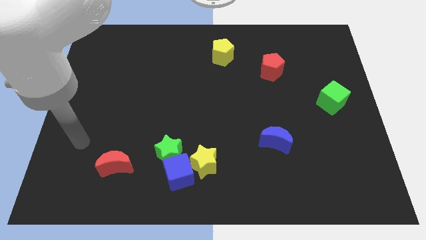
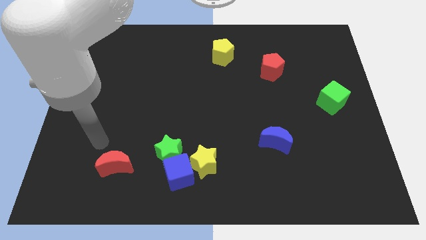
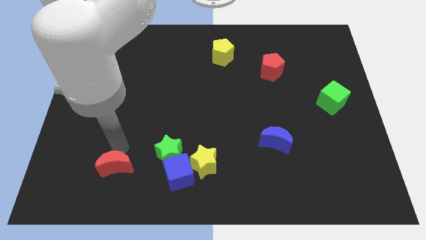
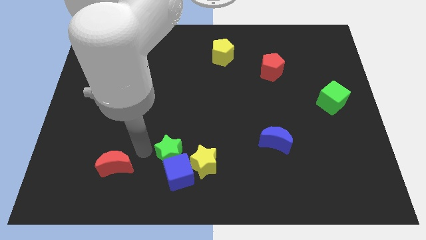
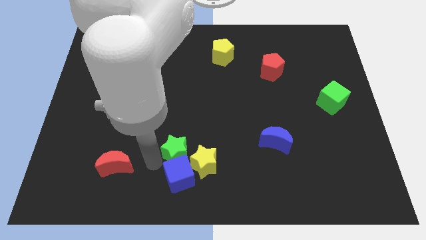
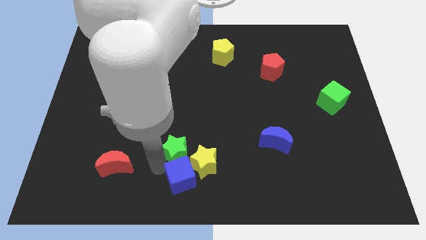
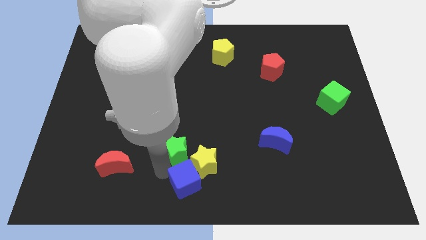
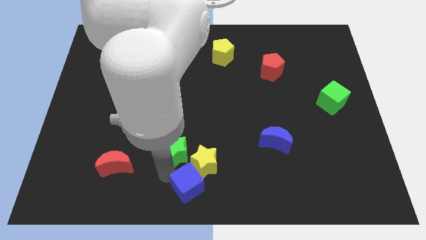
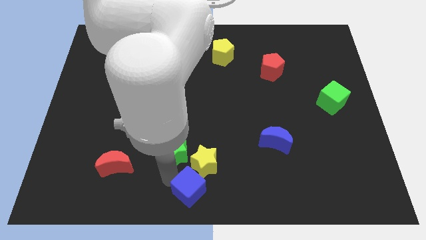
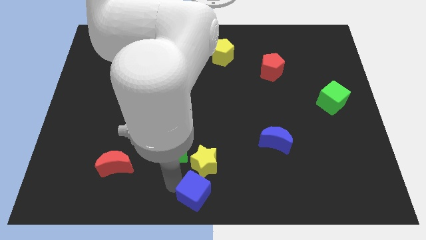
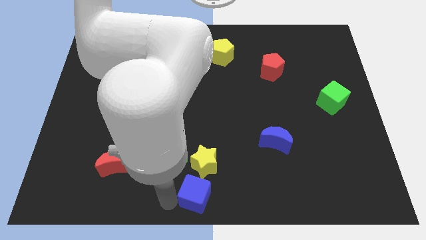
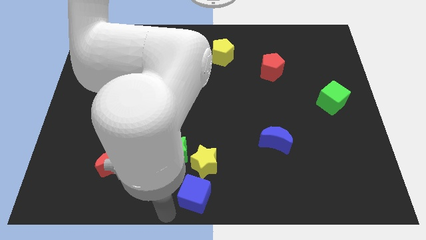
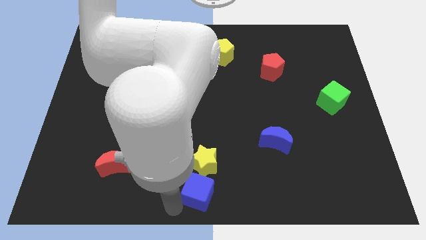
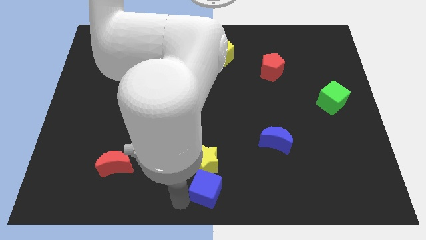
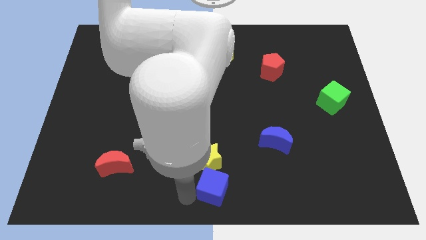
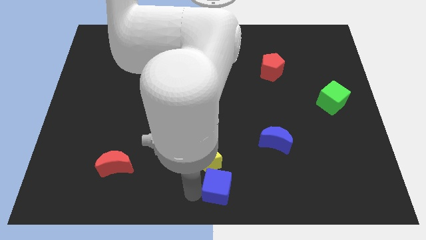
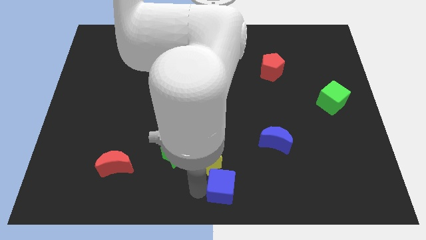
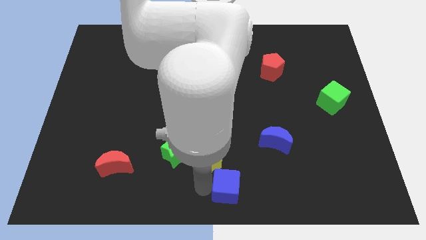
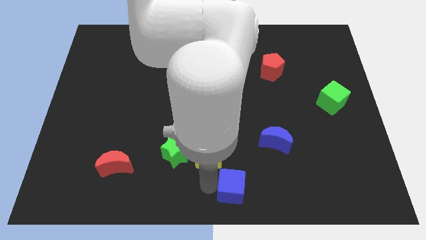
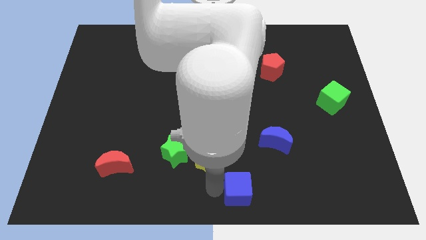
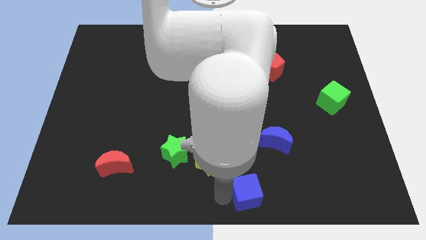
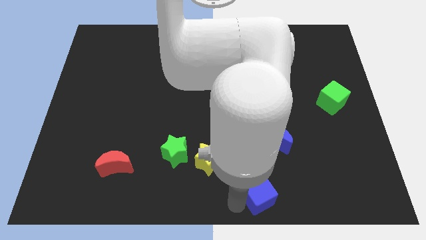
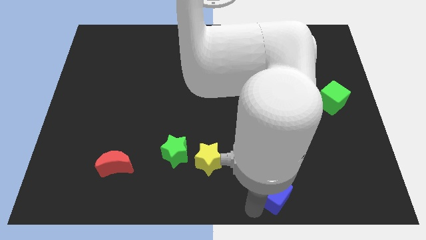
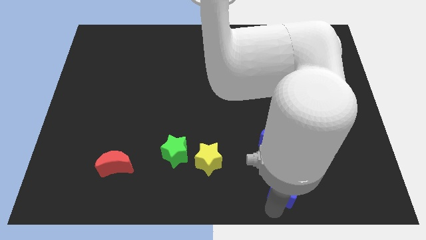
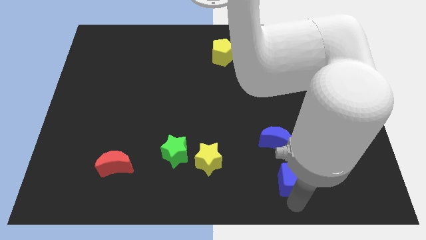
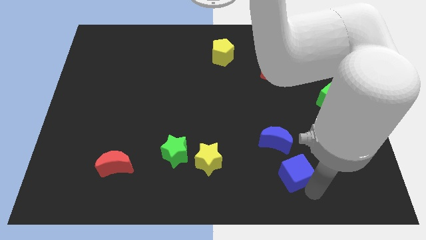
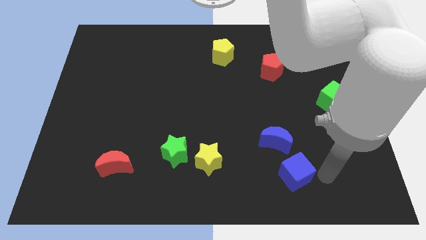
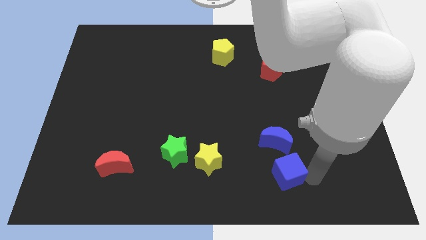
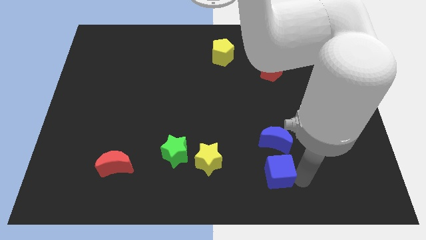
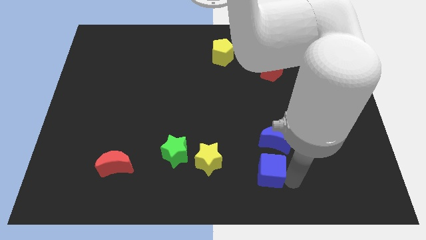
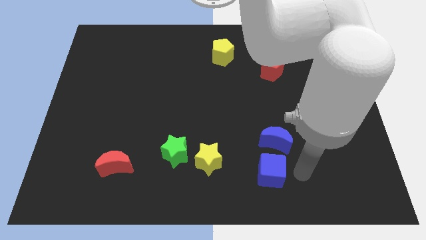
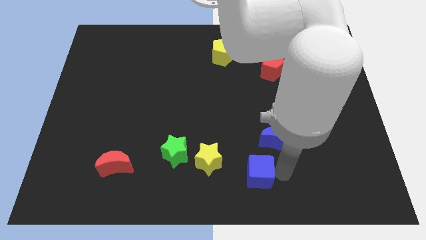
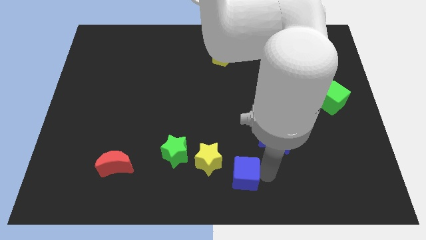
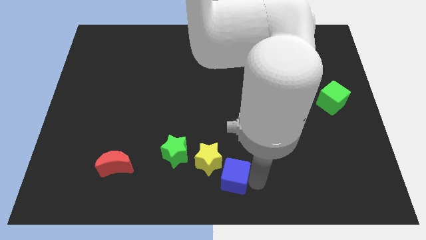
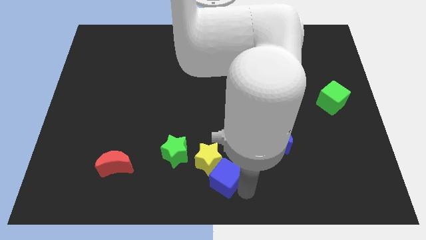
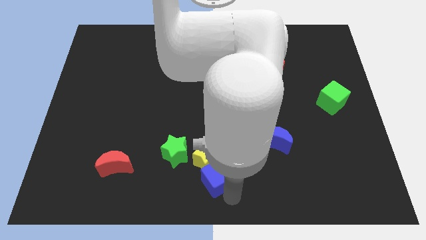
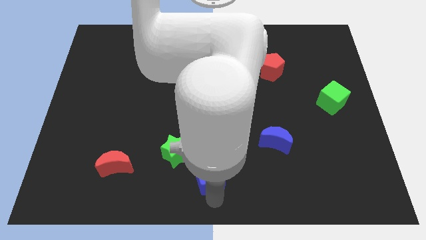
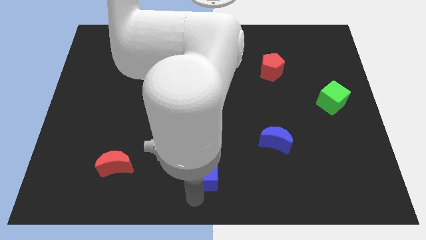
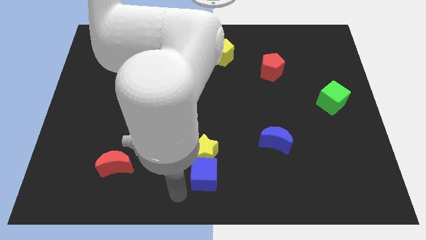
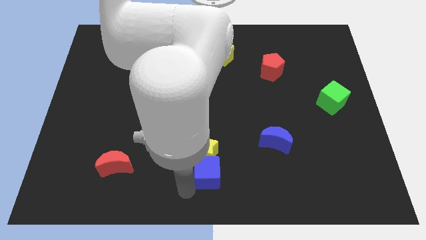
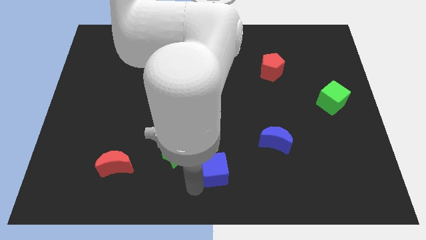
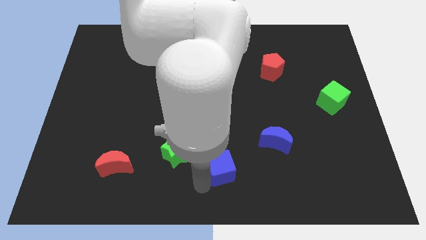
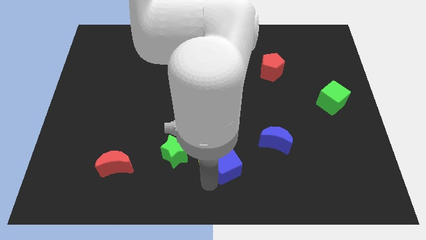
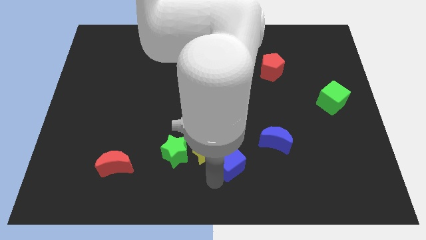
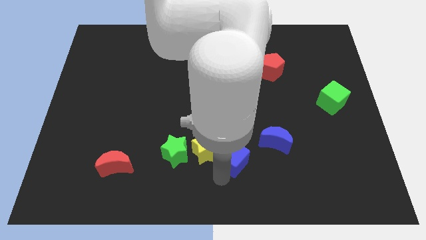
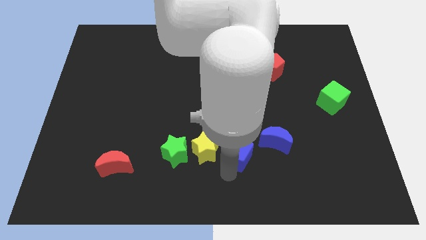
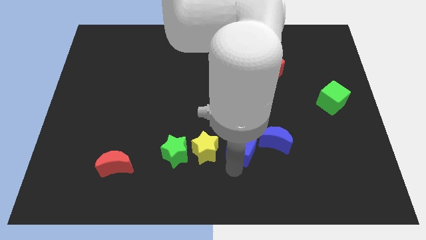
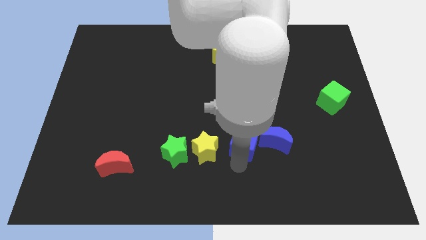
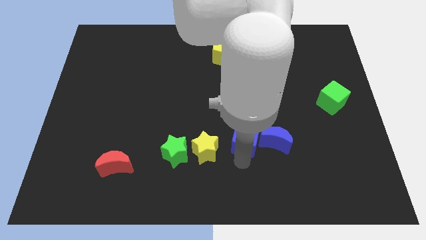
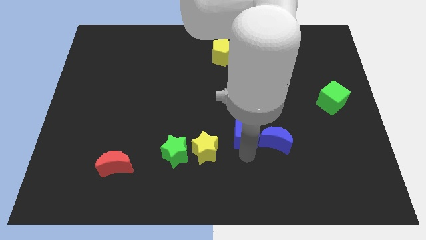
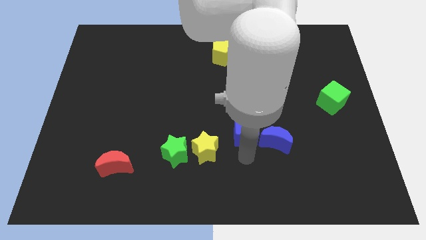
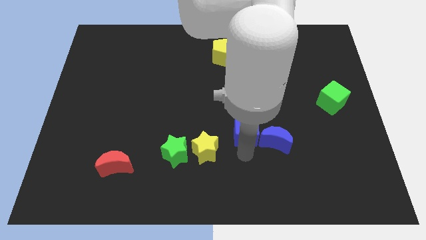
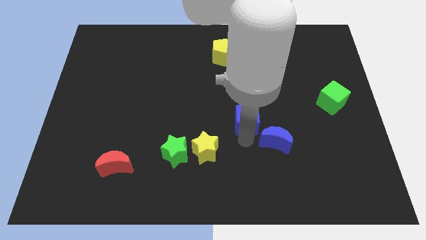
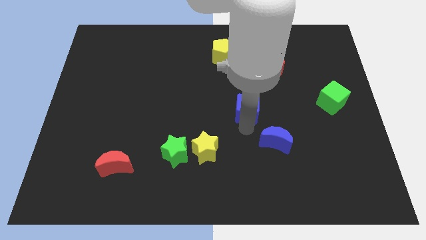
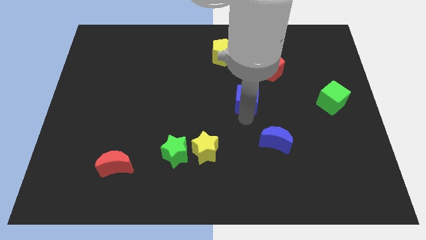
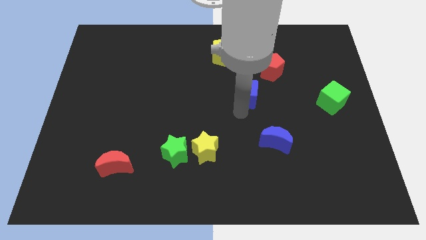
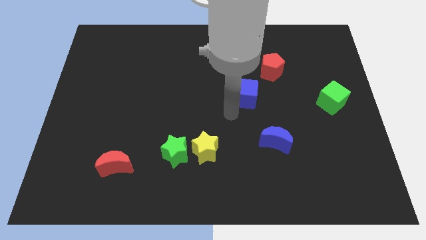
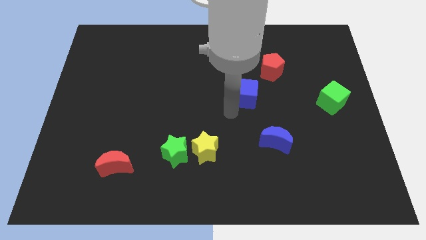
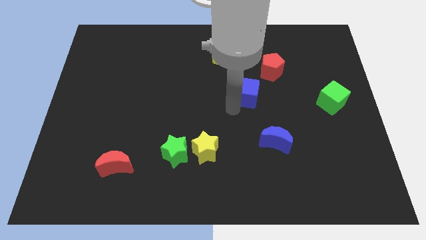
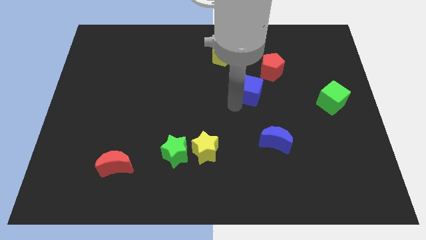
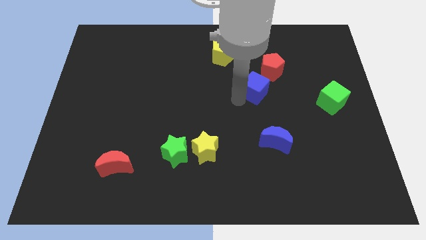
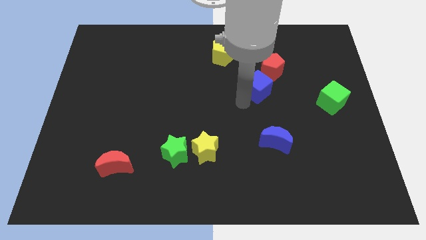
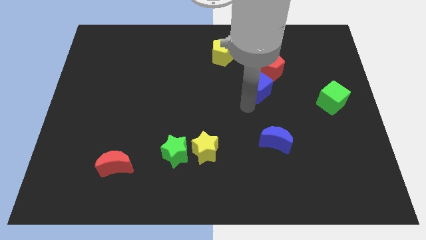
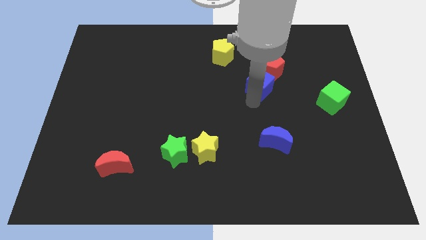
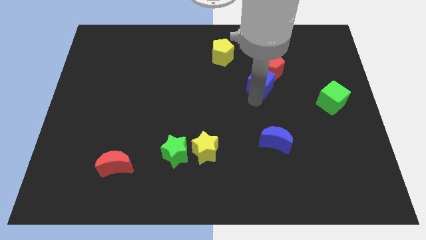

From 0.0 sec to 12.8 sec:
put the blue cube close to the red pentagon
